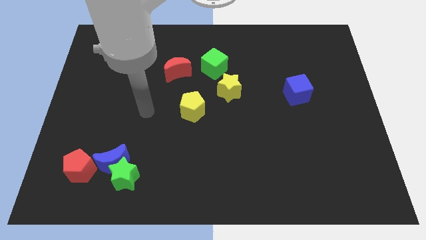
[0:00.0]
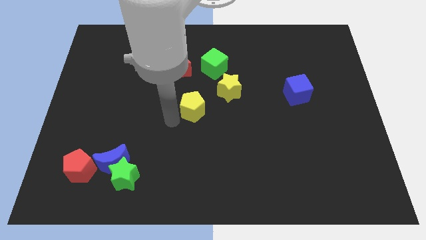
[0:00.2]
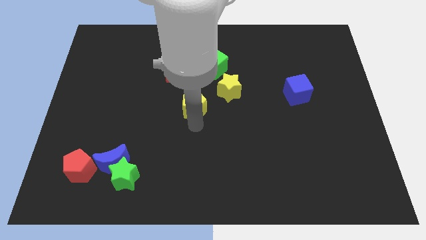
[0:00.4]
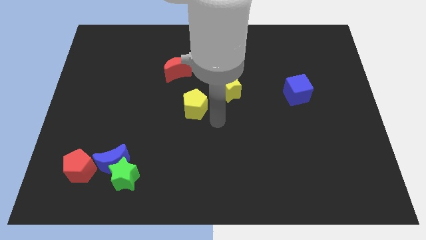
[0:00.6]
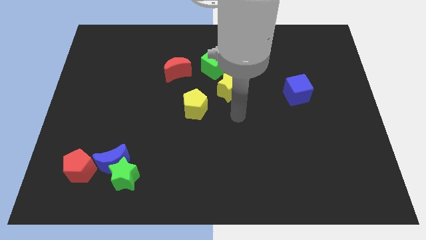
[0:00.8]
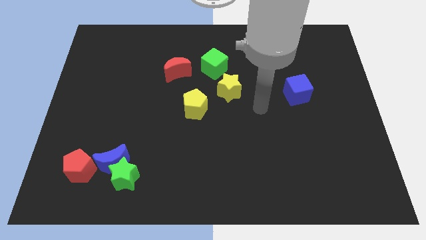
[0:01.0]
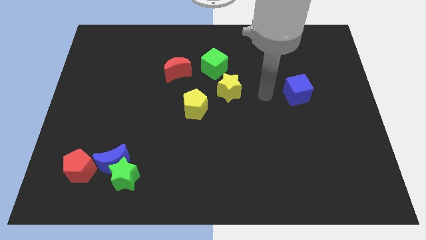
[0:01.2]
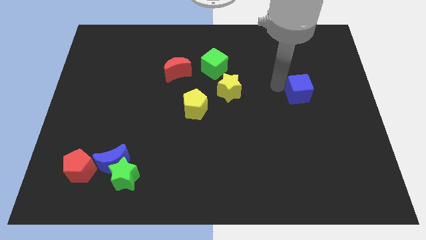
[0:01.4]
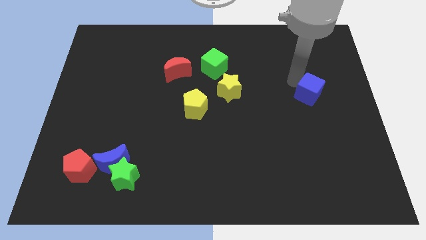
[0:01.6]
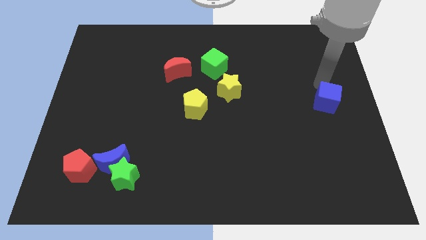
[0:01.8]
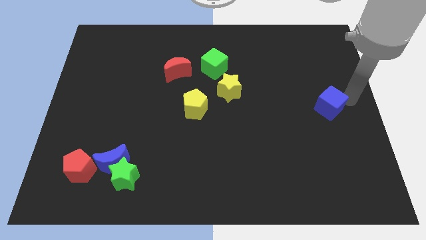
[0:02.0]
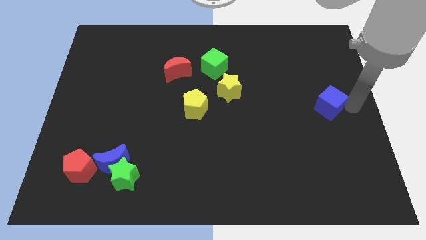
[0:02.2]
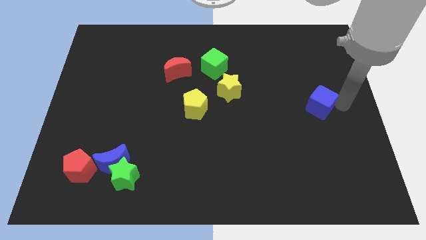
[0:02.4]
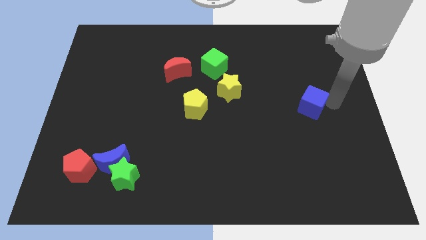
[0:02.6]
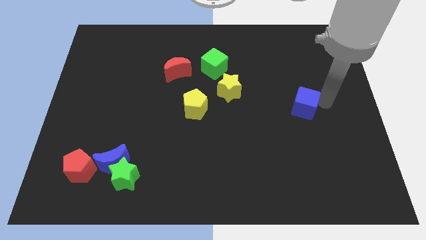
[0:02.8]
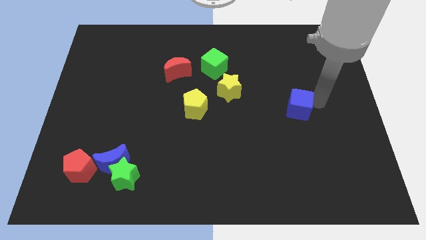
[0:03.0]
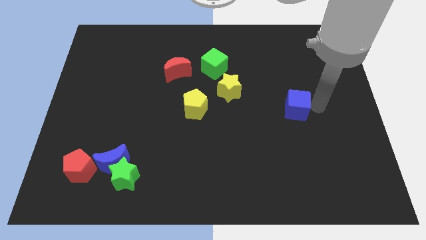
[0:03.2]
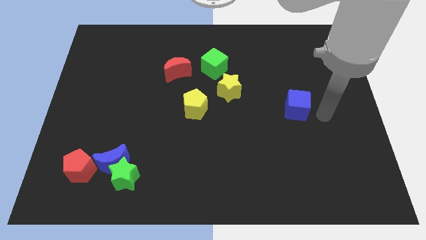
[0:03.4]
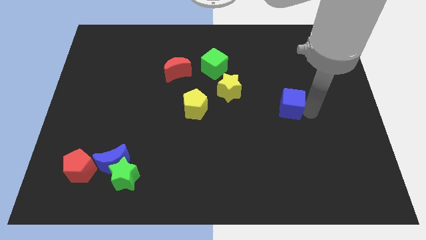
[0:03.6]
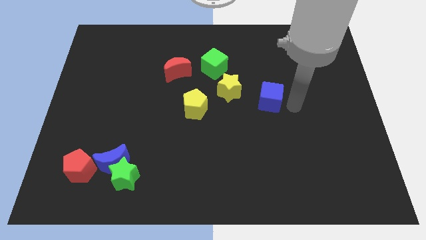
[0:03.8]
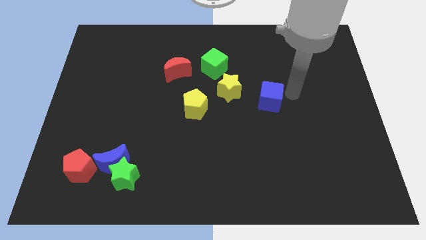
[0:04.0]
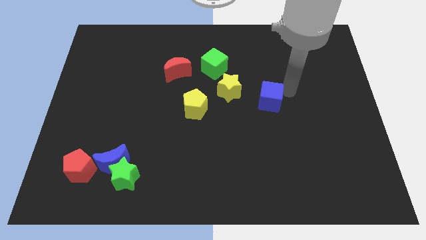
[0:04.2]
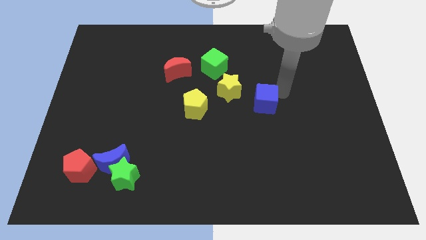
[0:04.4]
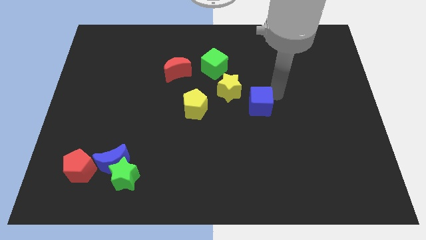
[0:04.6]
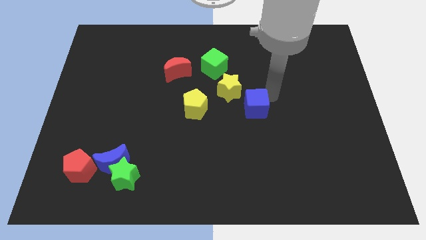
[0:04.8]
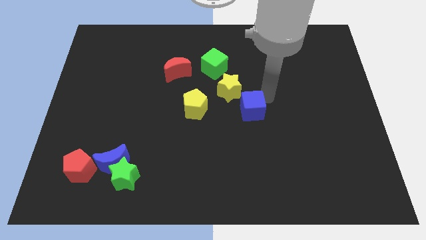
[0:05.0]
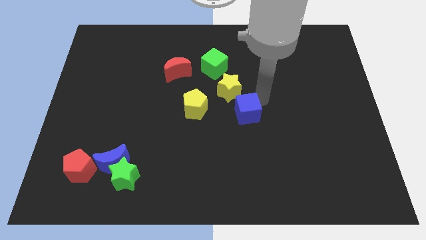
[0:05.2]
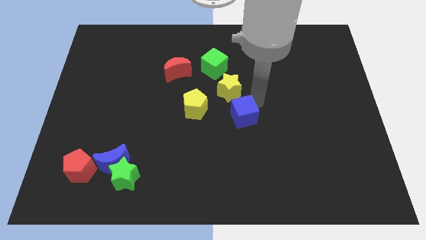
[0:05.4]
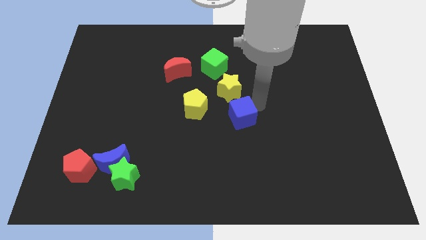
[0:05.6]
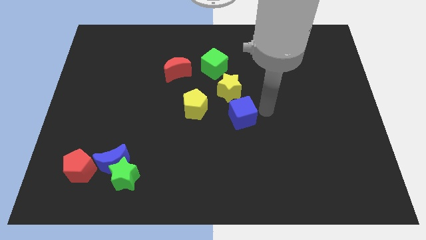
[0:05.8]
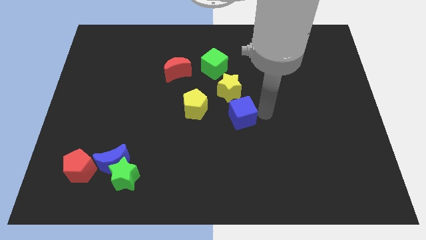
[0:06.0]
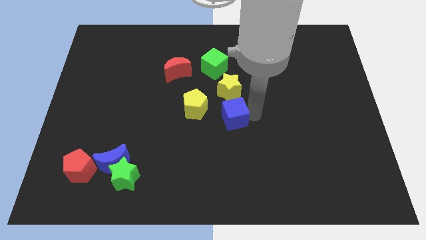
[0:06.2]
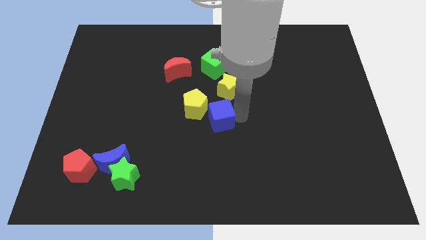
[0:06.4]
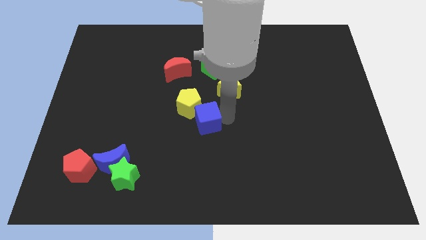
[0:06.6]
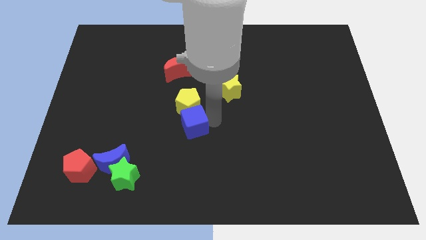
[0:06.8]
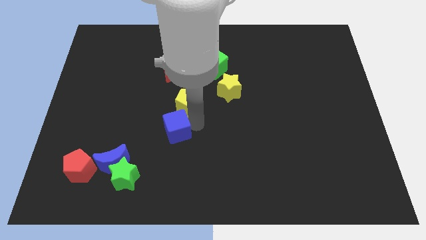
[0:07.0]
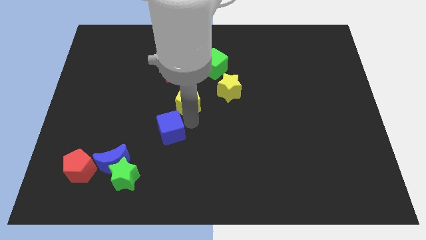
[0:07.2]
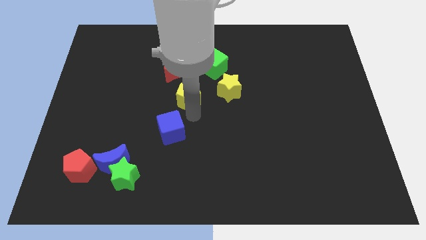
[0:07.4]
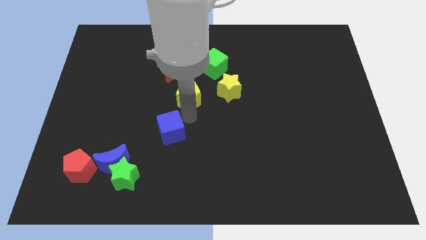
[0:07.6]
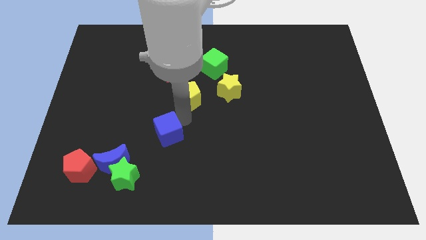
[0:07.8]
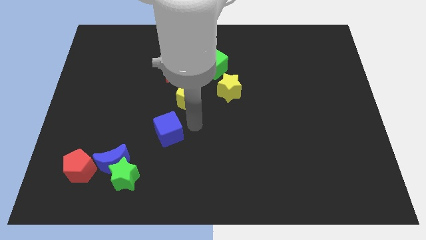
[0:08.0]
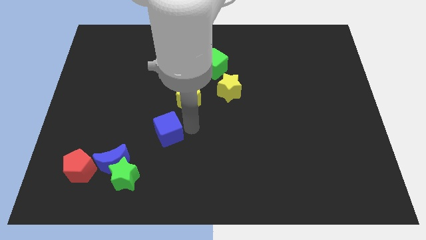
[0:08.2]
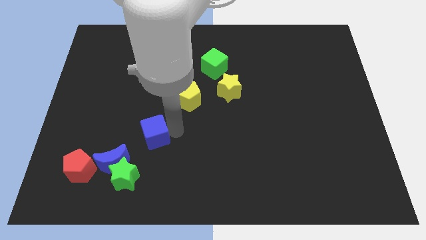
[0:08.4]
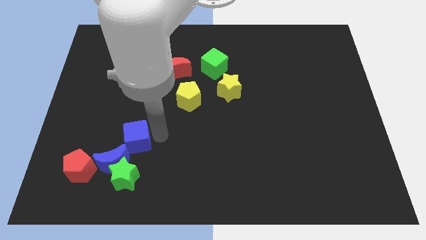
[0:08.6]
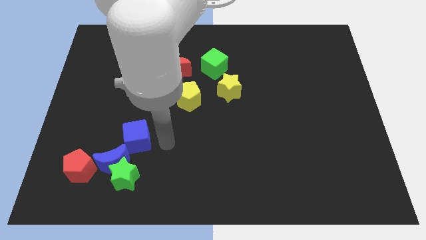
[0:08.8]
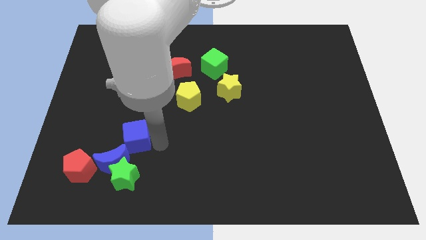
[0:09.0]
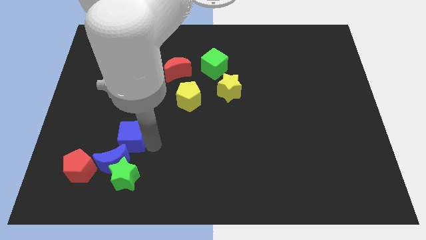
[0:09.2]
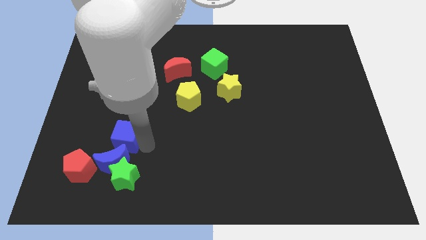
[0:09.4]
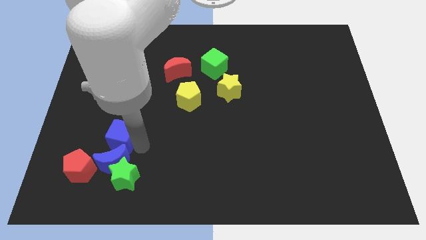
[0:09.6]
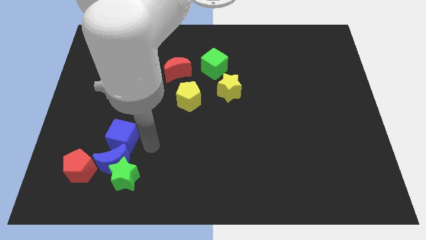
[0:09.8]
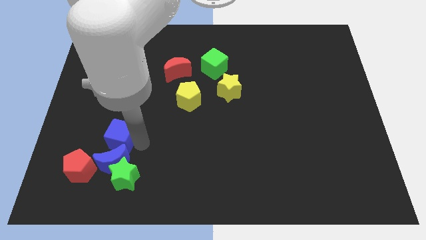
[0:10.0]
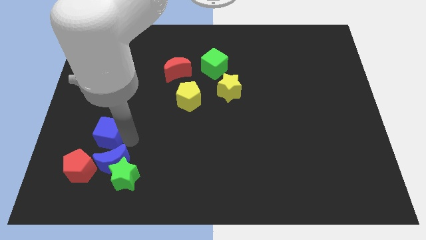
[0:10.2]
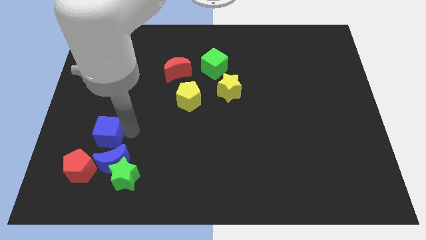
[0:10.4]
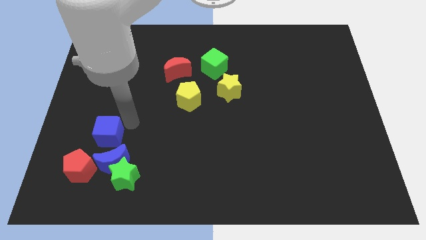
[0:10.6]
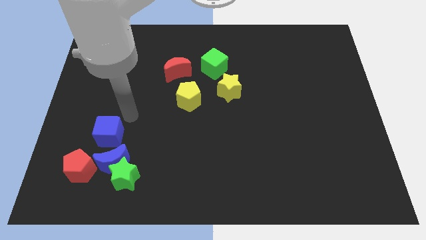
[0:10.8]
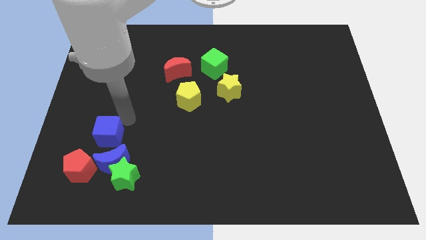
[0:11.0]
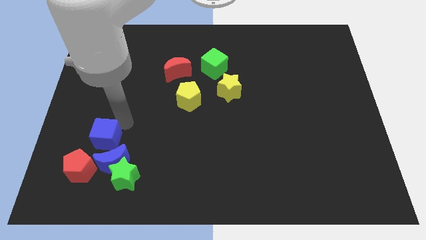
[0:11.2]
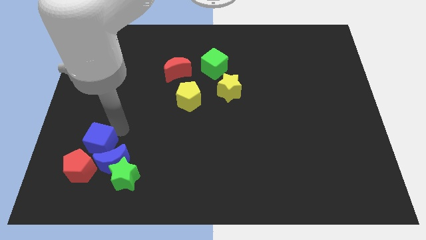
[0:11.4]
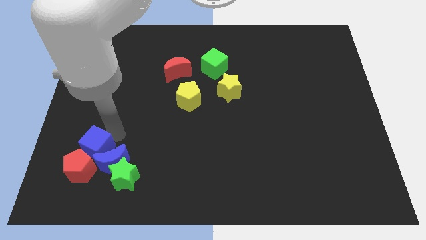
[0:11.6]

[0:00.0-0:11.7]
move the blue cube to the red pentagon

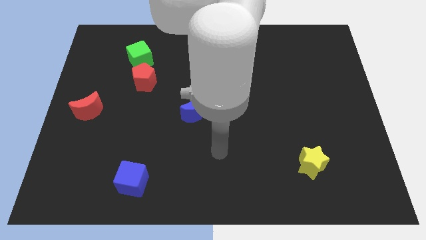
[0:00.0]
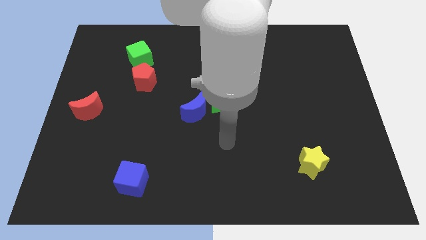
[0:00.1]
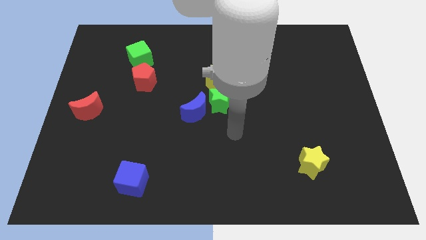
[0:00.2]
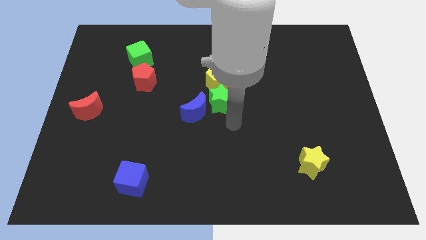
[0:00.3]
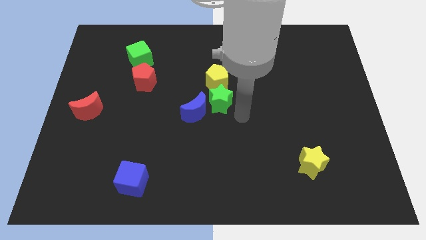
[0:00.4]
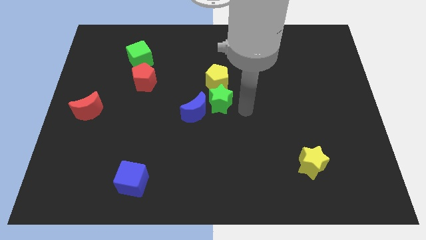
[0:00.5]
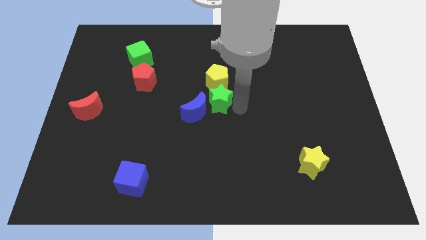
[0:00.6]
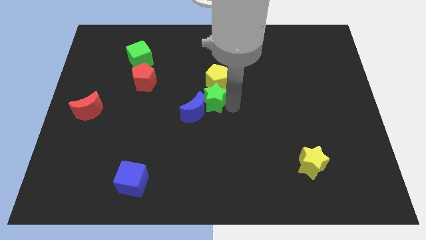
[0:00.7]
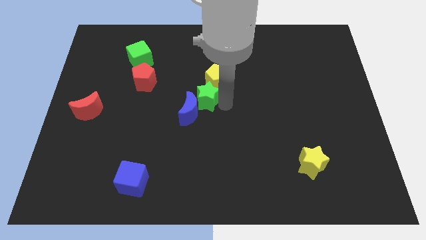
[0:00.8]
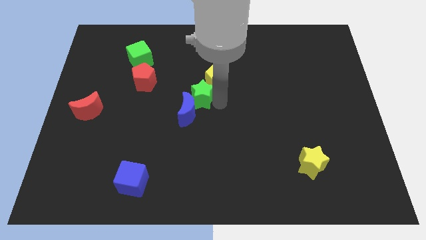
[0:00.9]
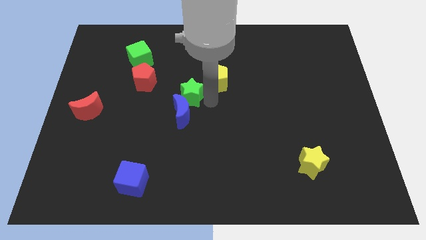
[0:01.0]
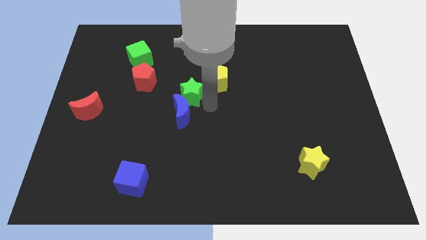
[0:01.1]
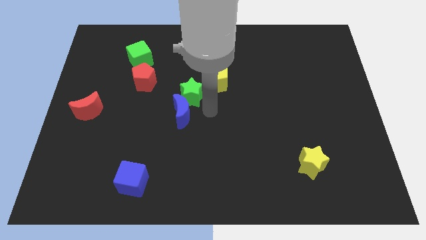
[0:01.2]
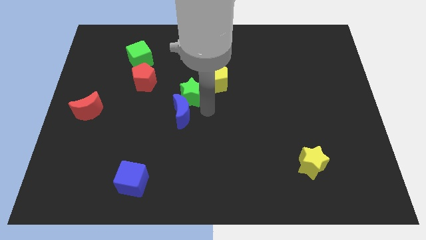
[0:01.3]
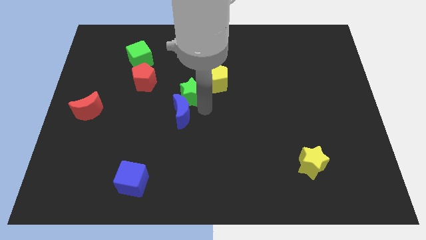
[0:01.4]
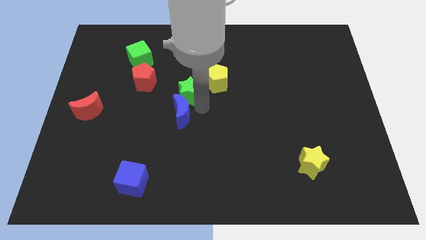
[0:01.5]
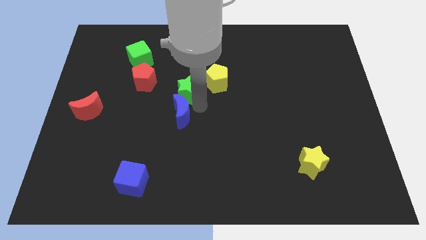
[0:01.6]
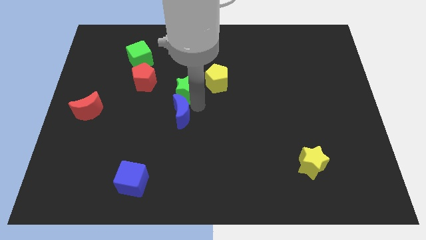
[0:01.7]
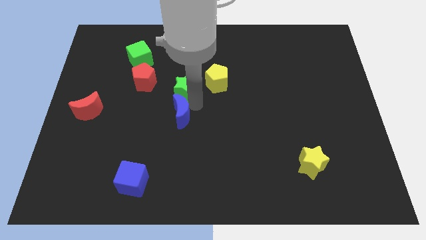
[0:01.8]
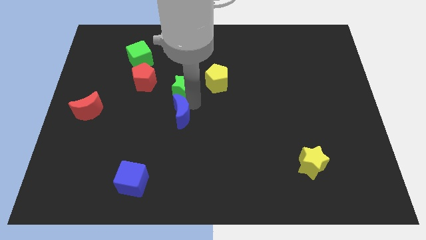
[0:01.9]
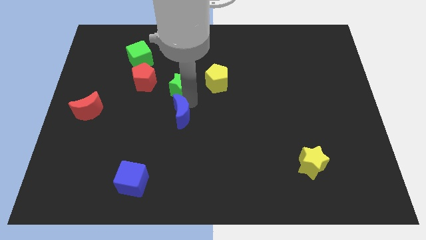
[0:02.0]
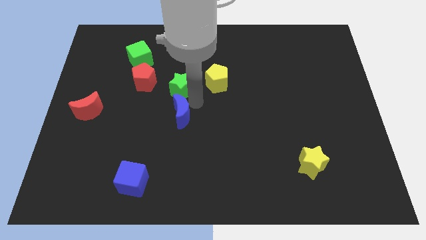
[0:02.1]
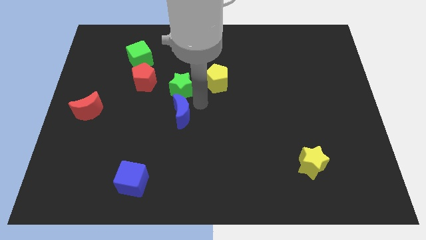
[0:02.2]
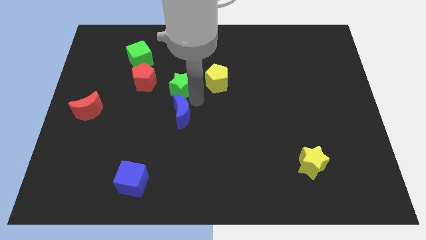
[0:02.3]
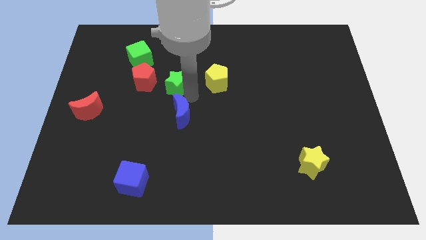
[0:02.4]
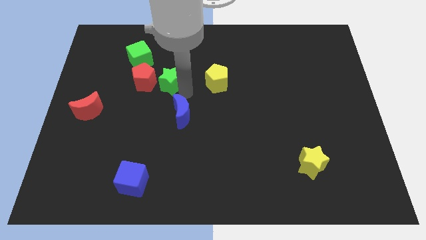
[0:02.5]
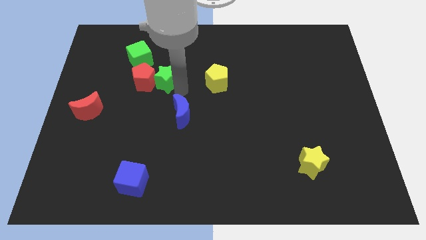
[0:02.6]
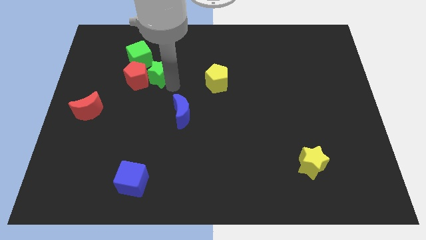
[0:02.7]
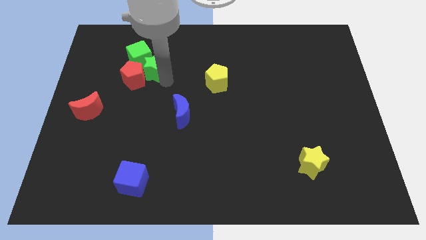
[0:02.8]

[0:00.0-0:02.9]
move the green star to the green cube
